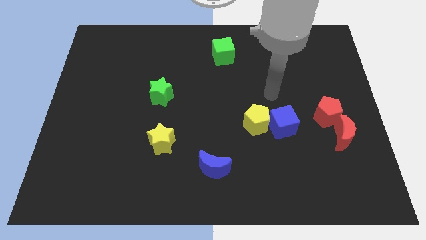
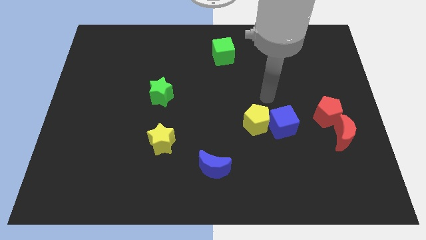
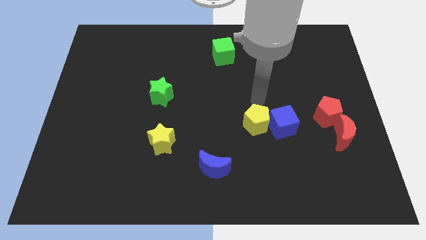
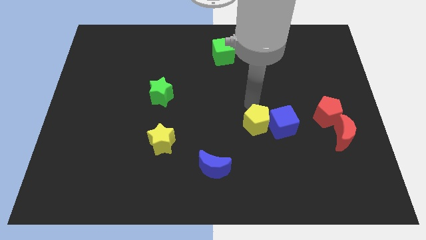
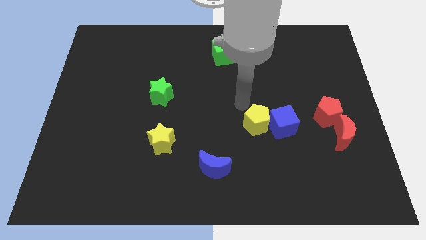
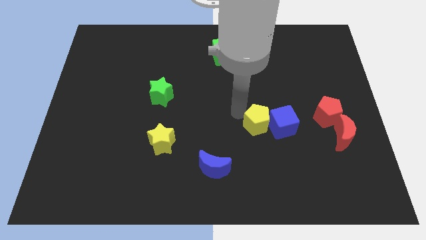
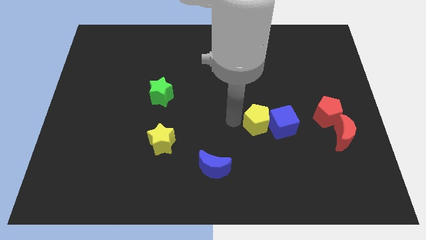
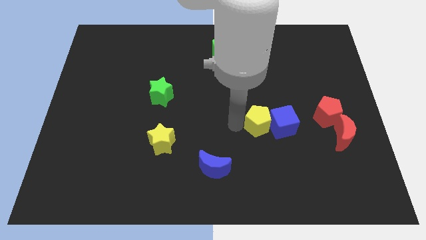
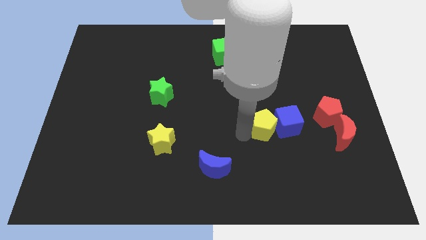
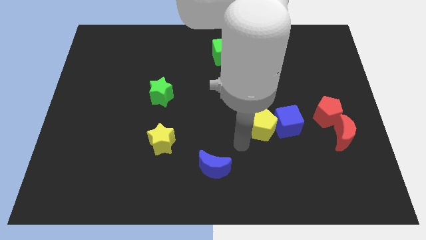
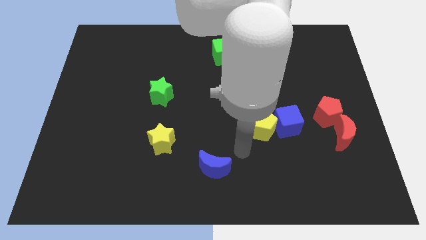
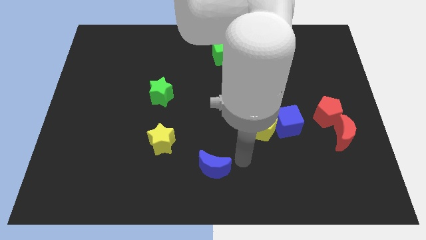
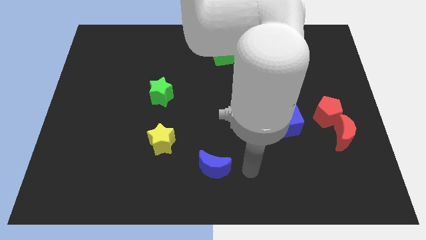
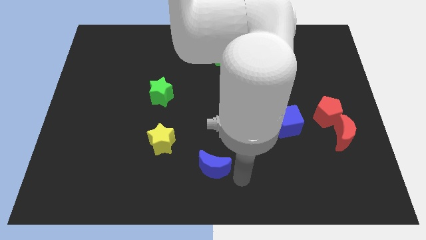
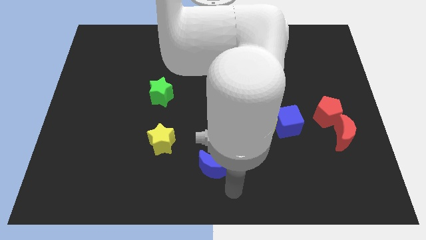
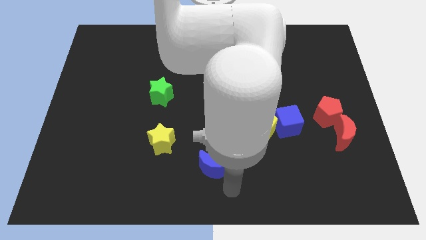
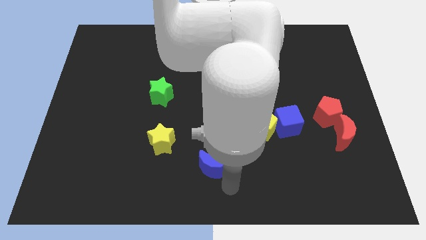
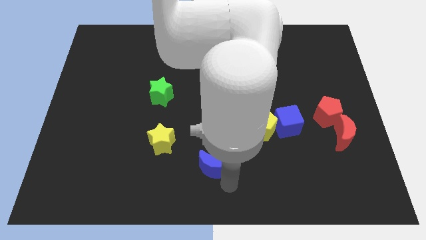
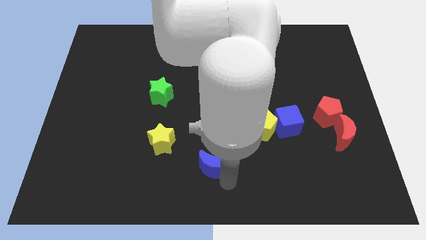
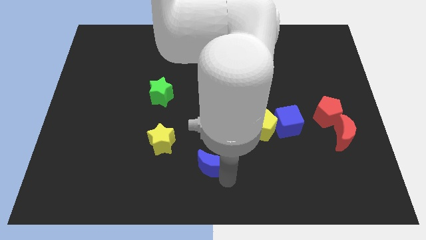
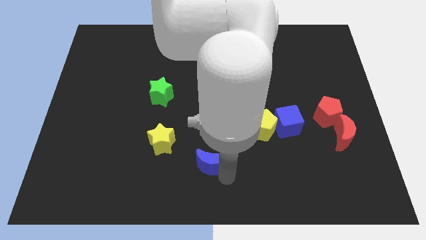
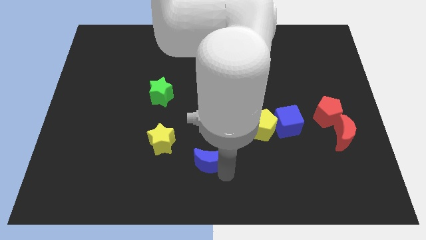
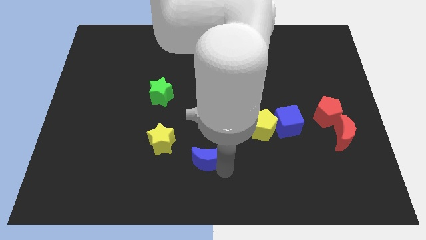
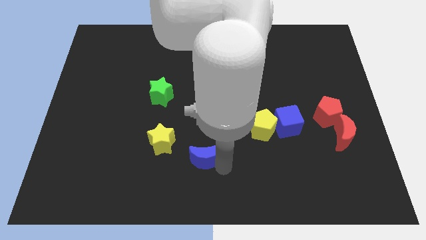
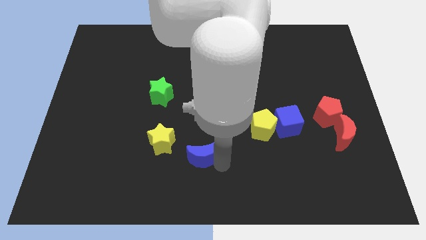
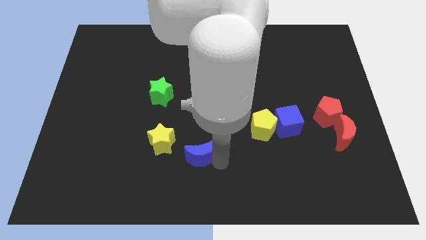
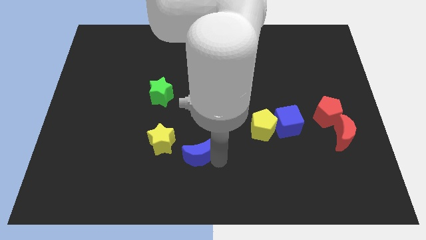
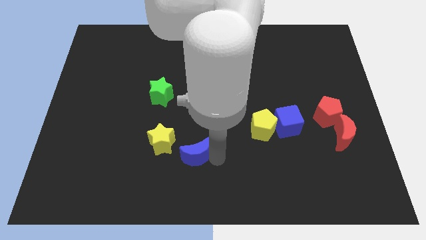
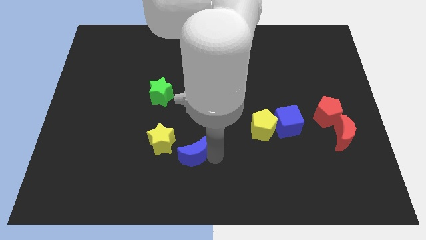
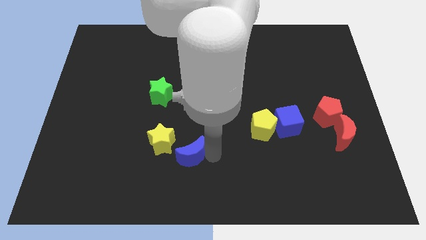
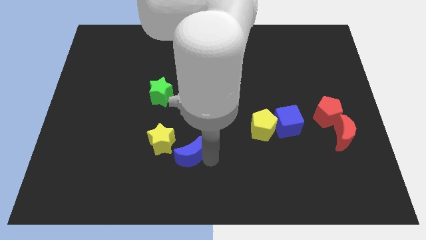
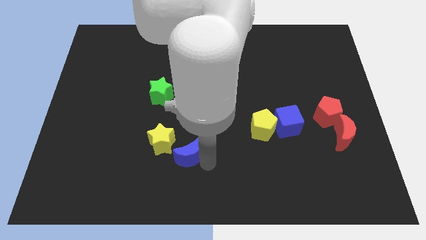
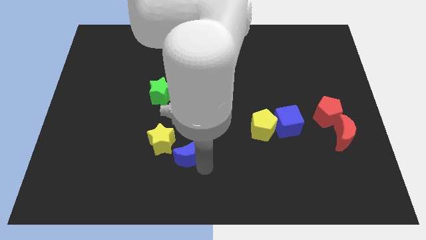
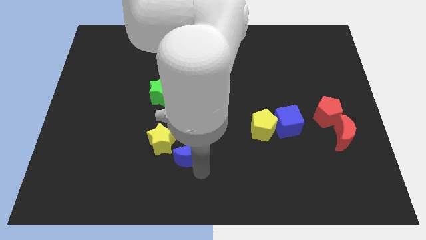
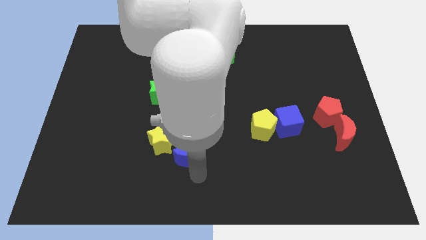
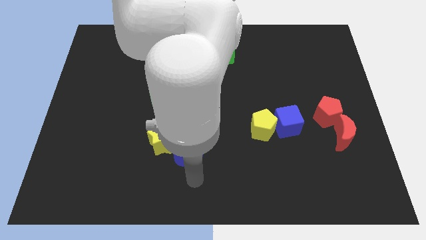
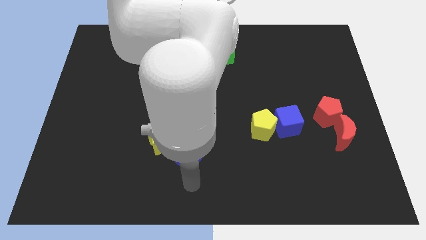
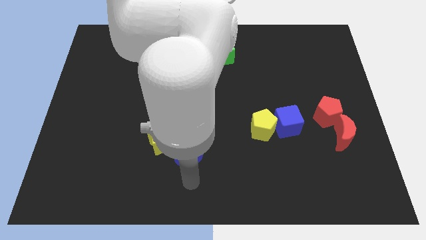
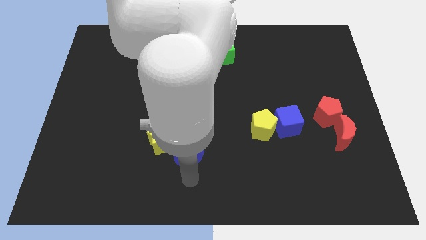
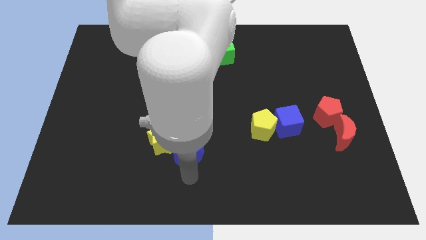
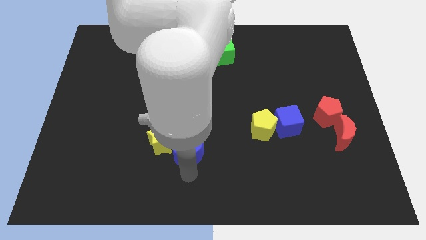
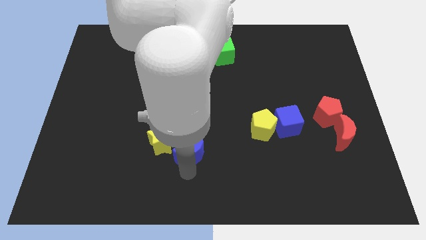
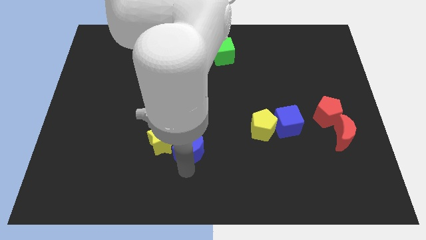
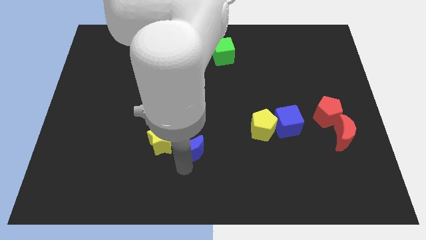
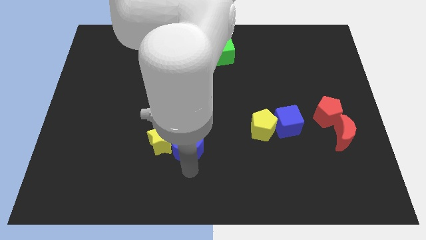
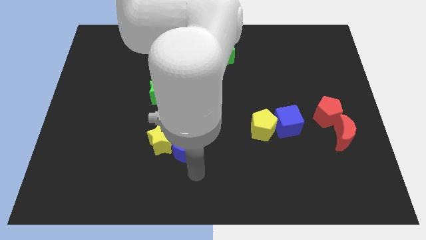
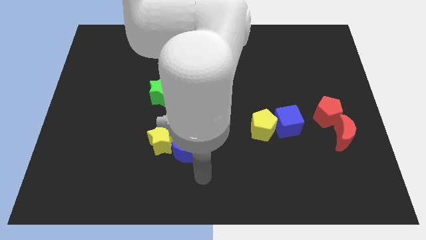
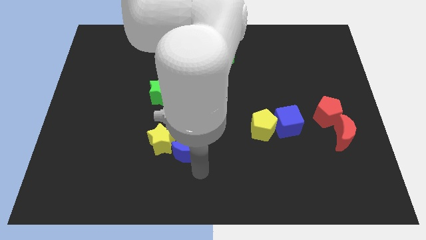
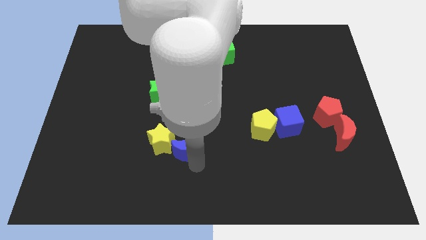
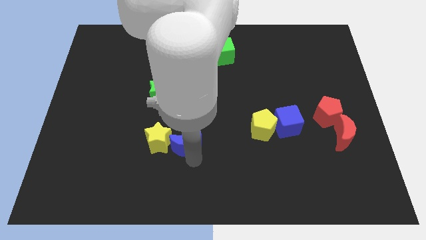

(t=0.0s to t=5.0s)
slightly push the blue moon upwards and left diagonally

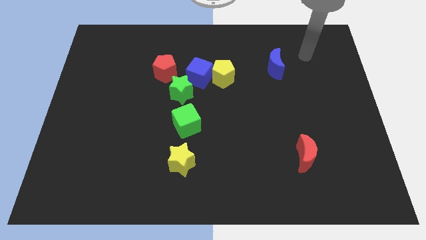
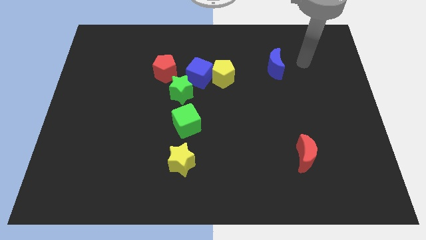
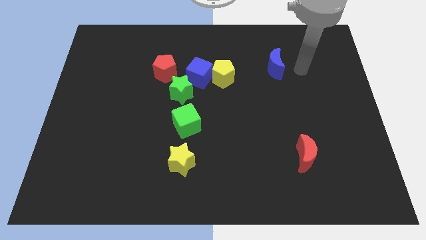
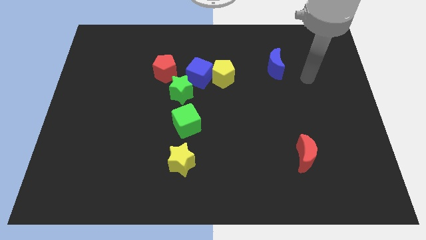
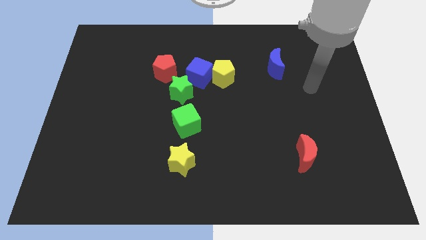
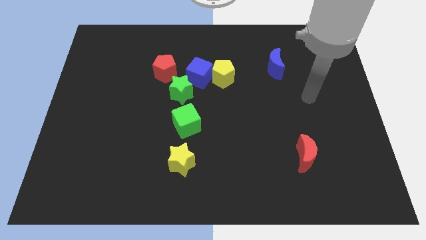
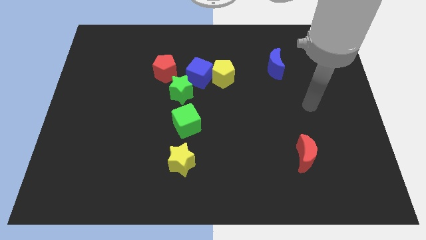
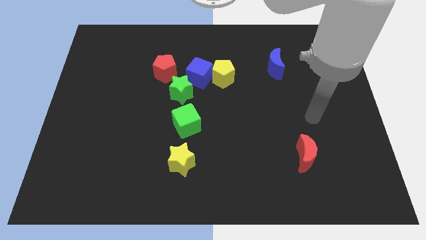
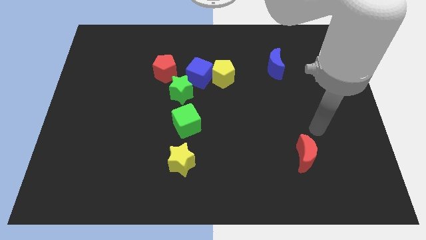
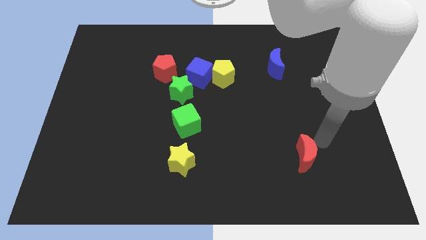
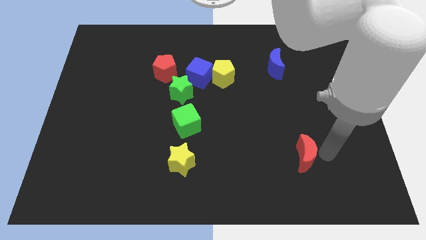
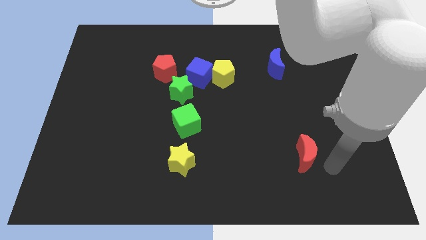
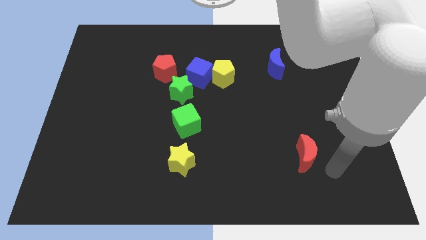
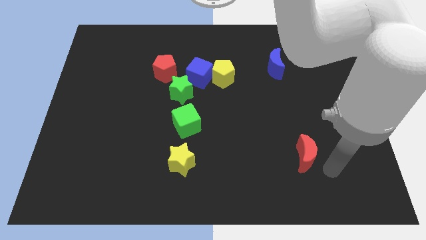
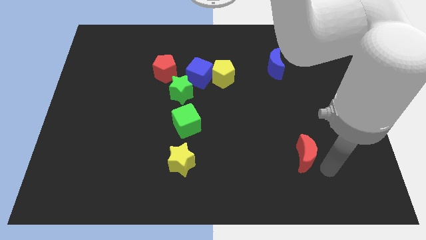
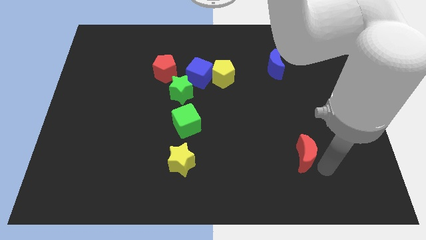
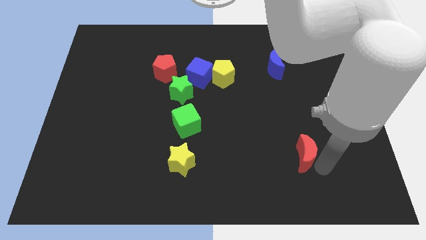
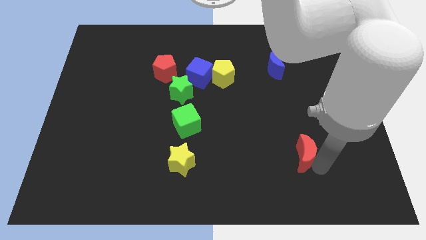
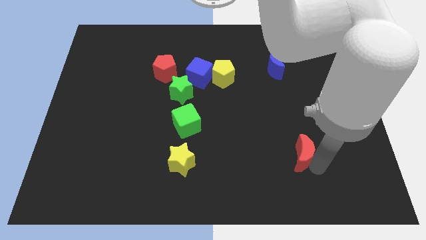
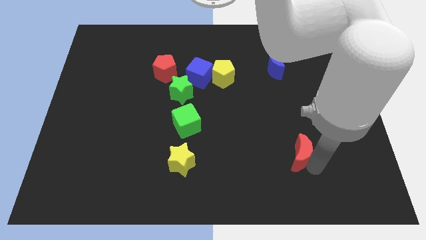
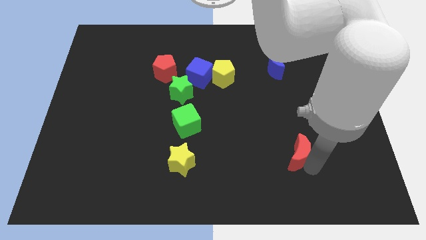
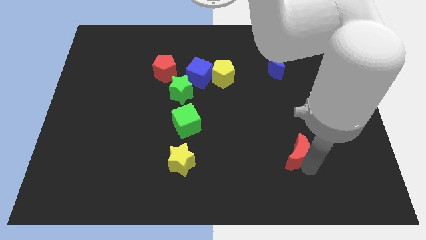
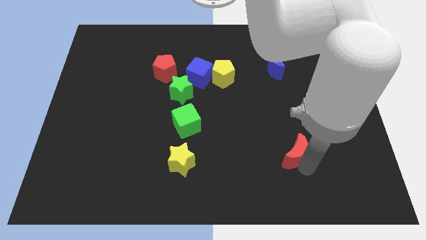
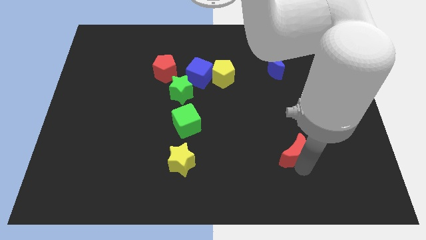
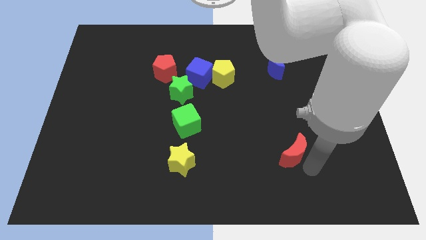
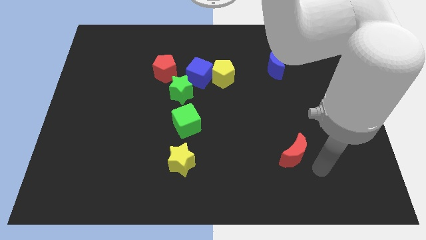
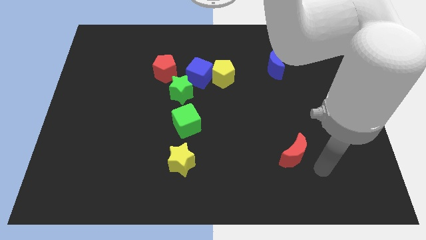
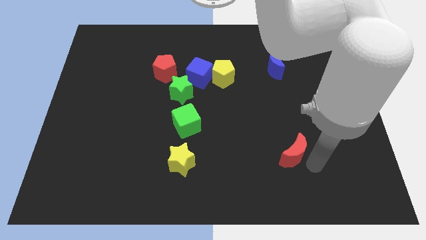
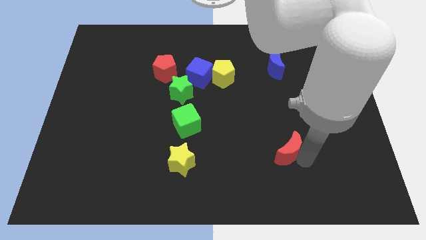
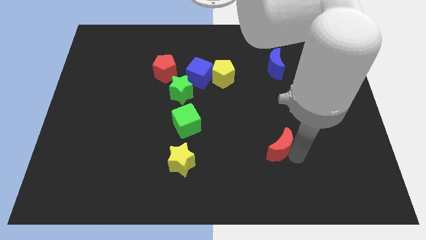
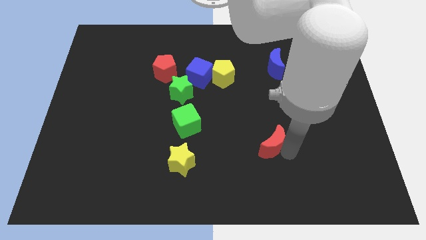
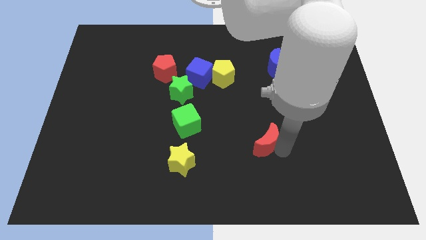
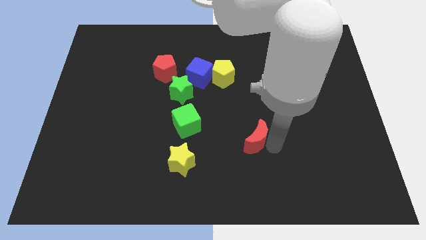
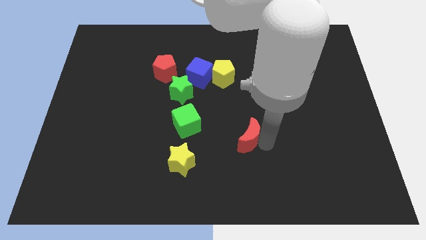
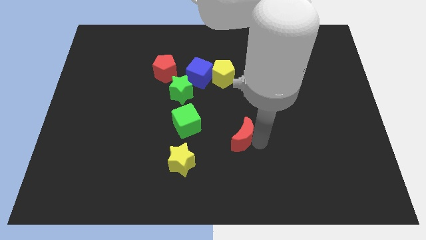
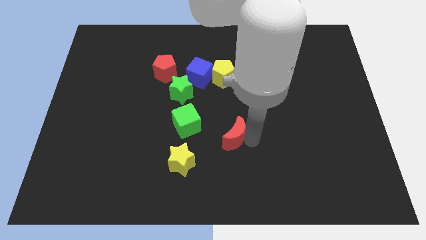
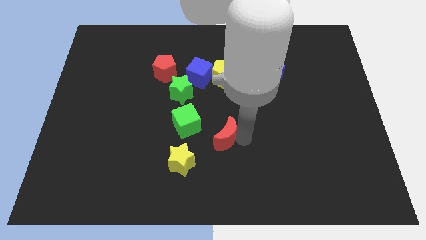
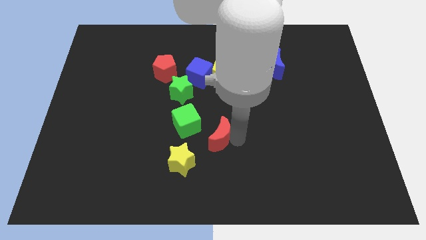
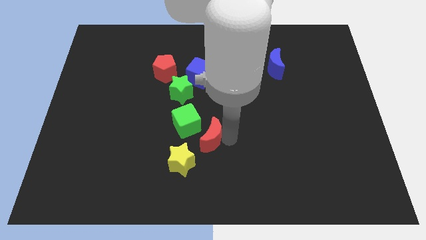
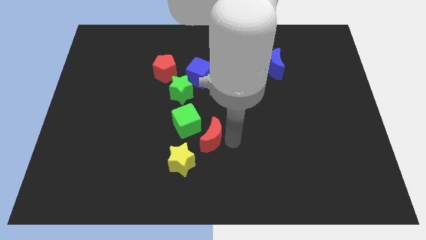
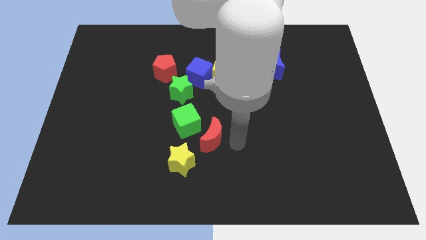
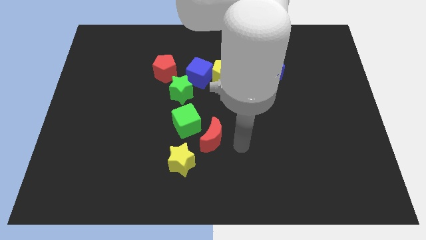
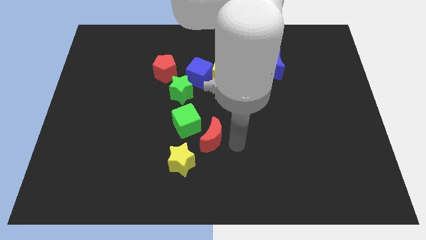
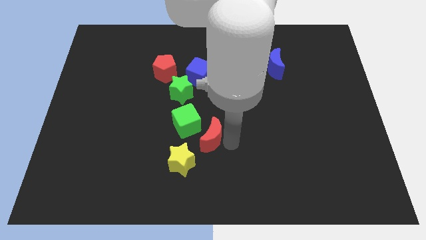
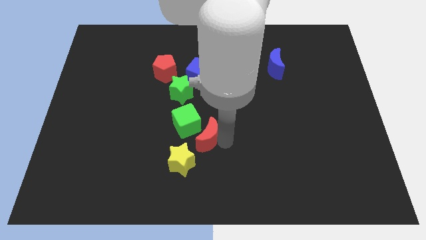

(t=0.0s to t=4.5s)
move the red moon left
